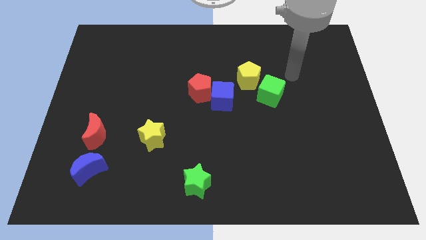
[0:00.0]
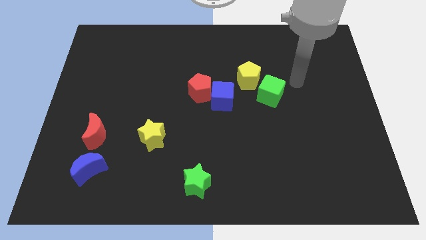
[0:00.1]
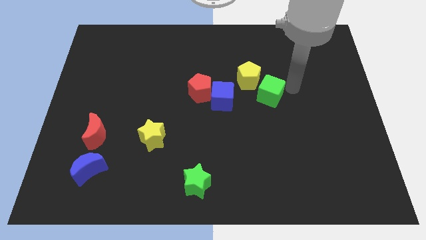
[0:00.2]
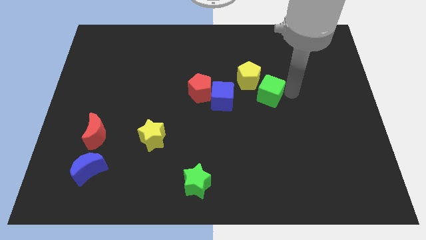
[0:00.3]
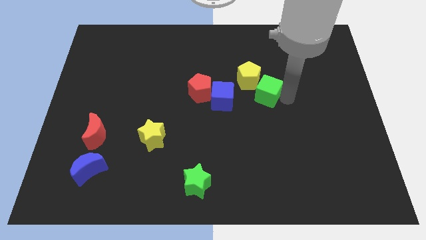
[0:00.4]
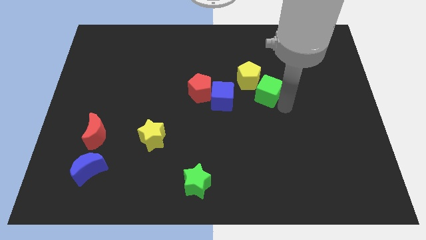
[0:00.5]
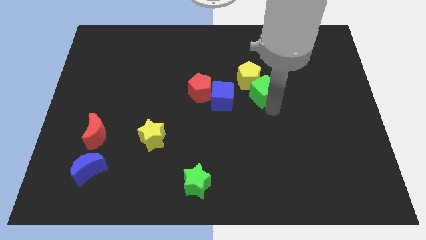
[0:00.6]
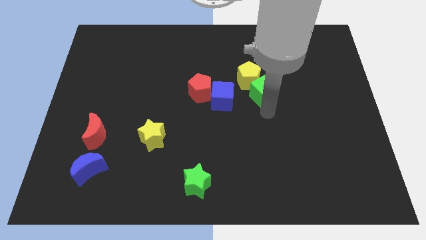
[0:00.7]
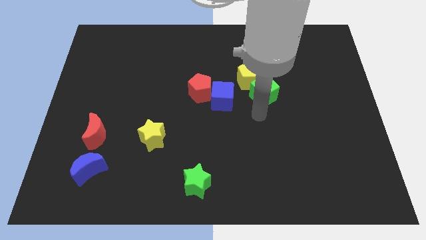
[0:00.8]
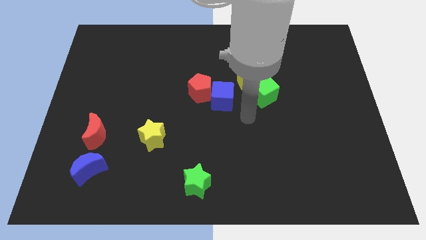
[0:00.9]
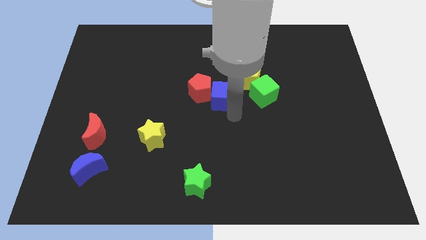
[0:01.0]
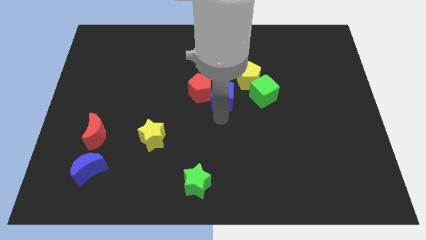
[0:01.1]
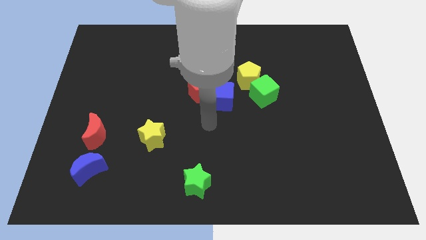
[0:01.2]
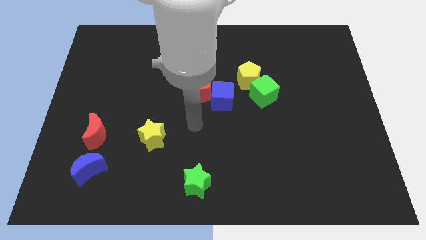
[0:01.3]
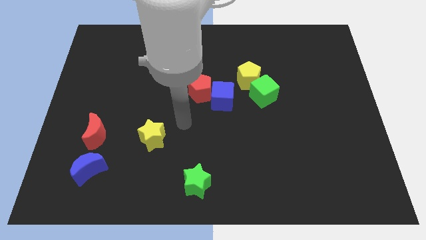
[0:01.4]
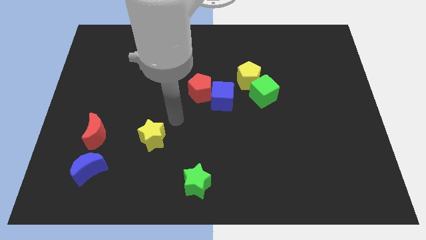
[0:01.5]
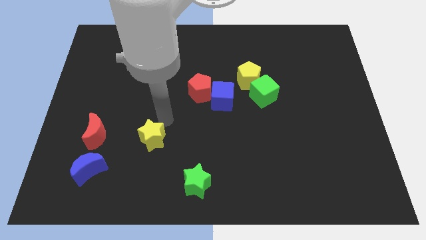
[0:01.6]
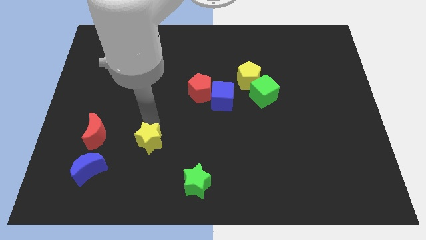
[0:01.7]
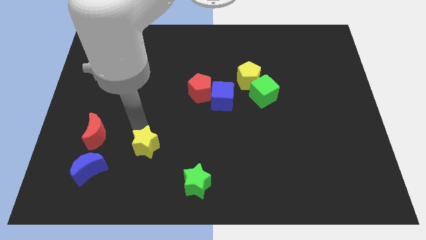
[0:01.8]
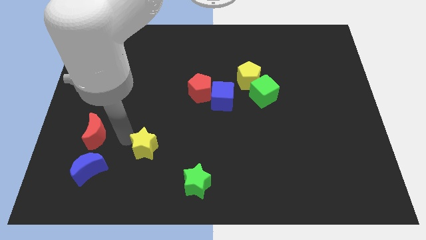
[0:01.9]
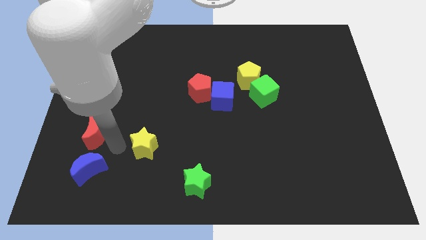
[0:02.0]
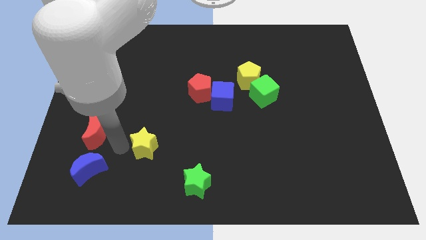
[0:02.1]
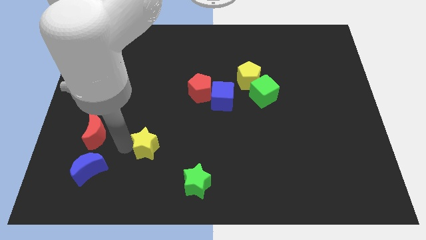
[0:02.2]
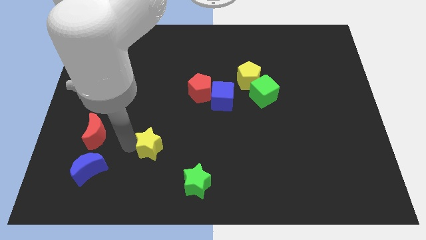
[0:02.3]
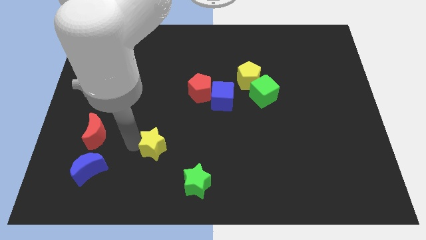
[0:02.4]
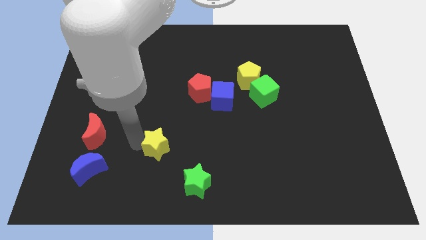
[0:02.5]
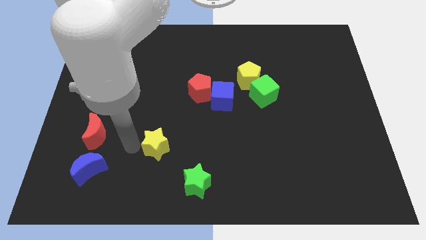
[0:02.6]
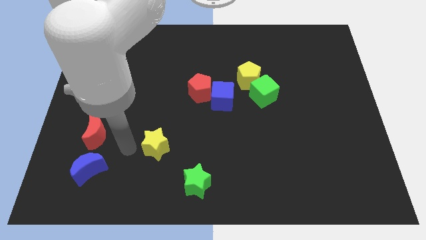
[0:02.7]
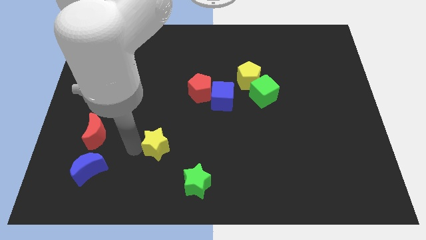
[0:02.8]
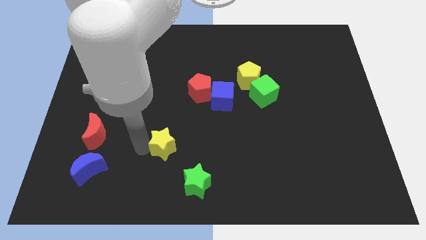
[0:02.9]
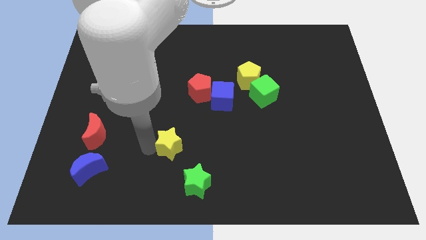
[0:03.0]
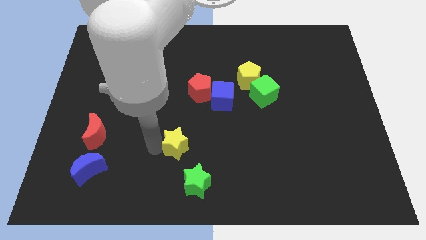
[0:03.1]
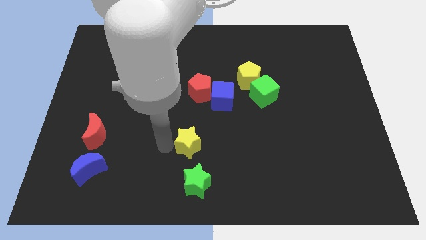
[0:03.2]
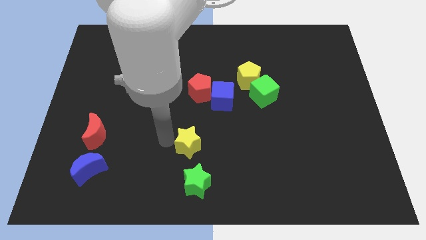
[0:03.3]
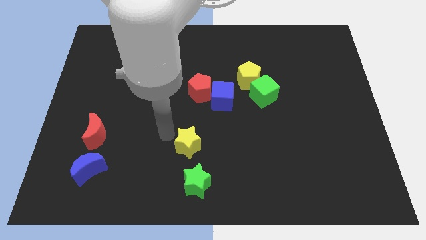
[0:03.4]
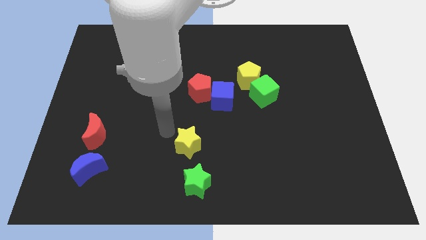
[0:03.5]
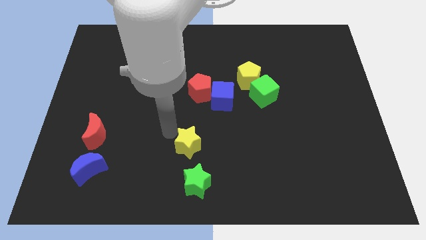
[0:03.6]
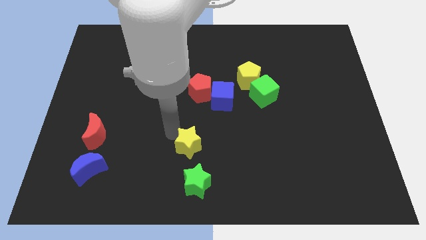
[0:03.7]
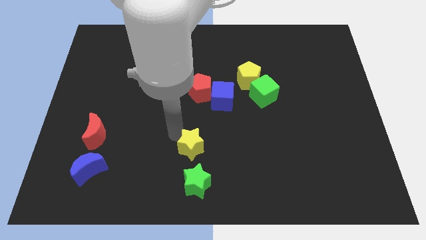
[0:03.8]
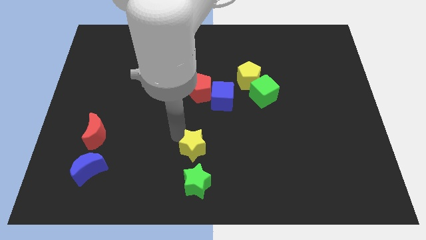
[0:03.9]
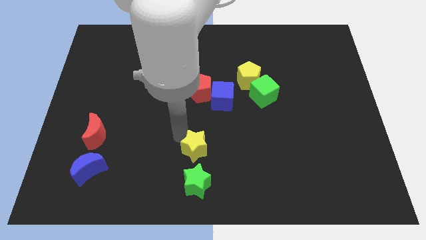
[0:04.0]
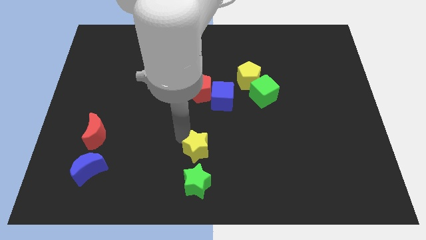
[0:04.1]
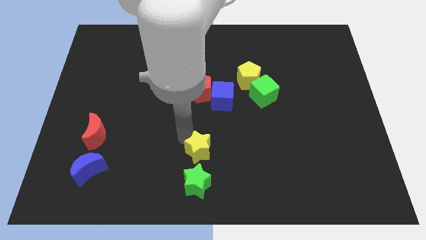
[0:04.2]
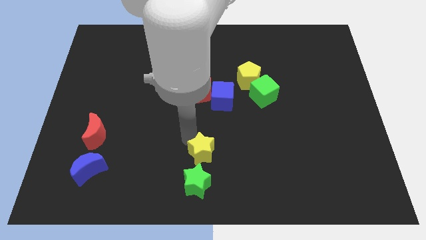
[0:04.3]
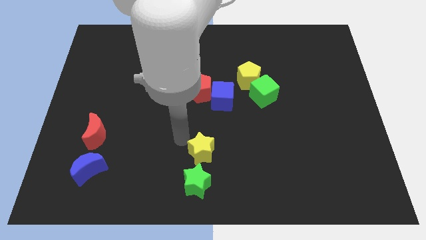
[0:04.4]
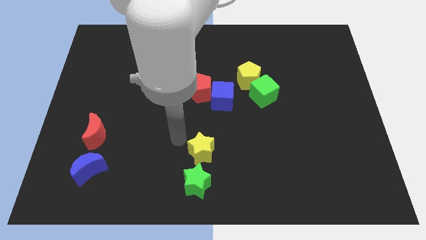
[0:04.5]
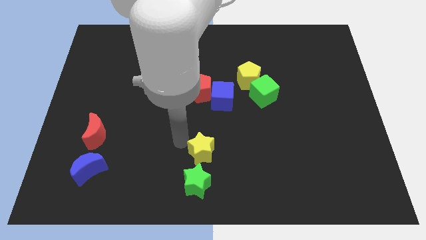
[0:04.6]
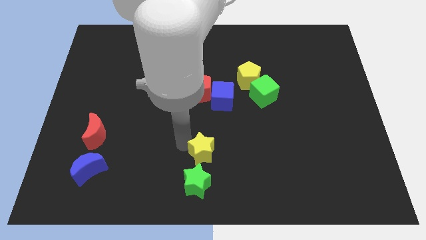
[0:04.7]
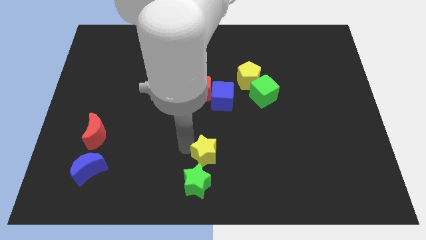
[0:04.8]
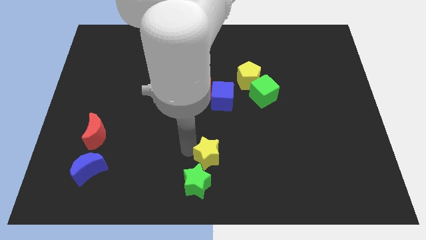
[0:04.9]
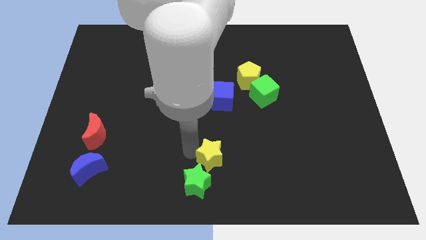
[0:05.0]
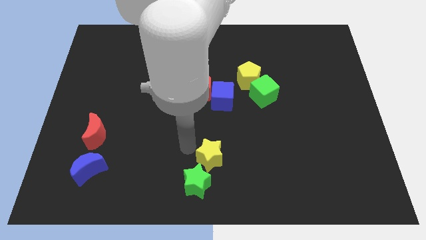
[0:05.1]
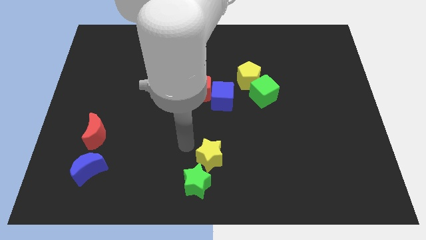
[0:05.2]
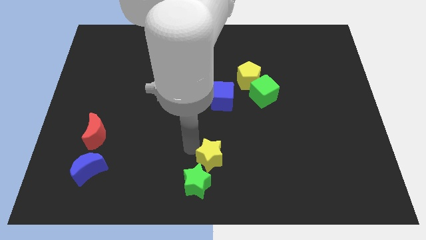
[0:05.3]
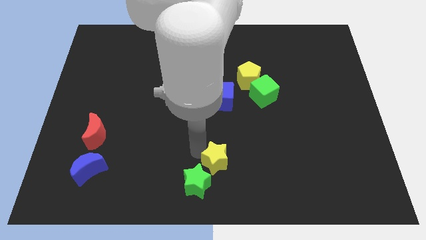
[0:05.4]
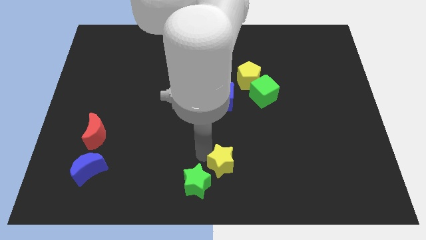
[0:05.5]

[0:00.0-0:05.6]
slide the yellow star to the right of the green star

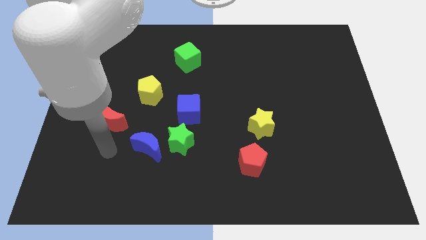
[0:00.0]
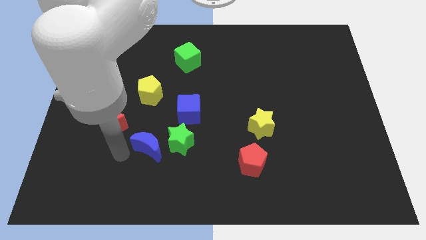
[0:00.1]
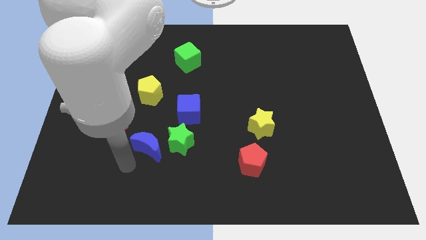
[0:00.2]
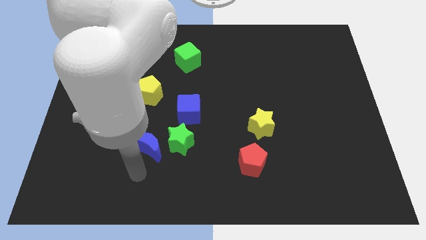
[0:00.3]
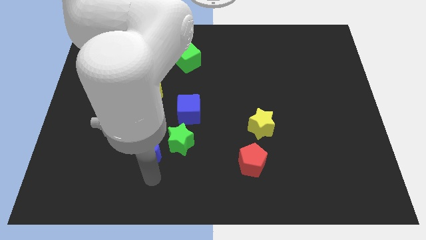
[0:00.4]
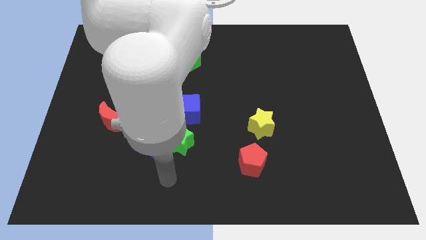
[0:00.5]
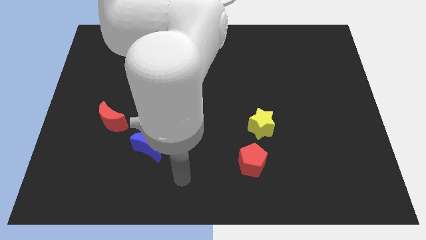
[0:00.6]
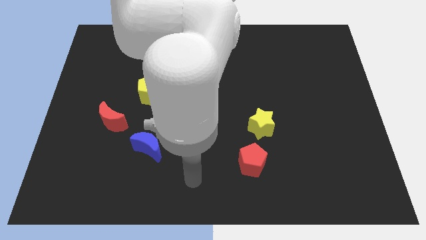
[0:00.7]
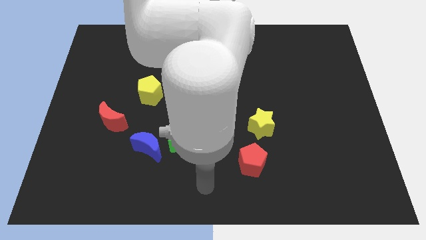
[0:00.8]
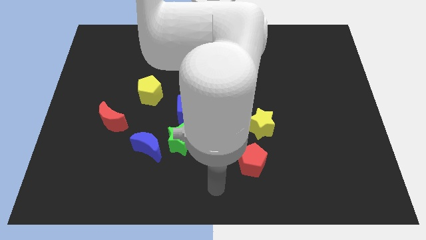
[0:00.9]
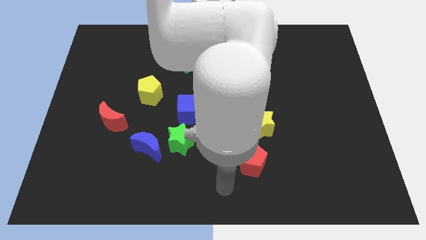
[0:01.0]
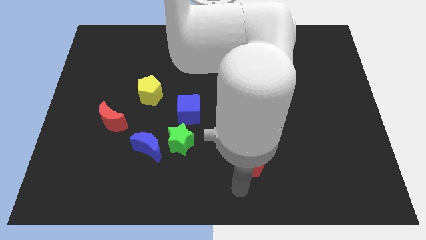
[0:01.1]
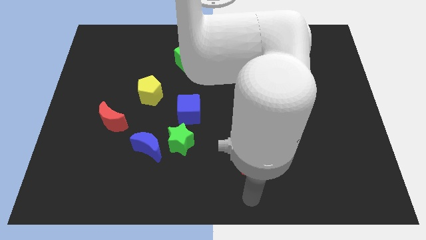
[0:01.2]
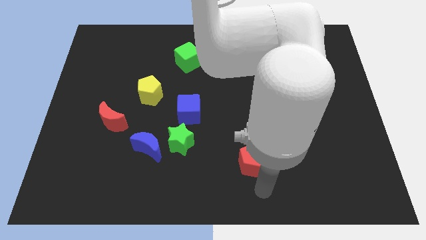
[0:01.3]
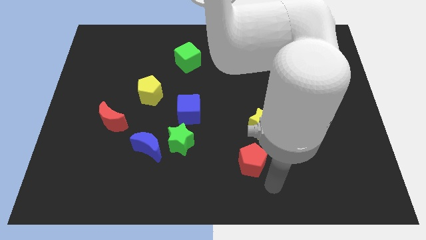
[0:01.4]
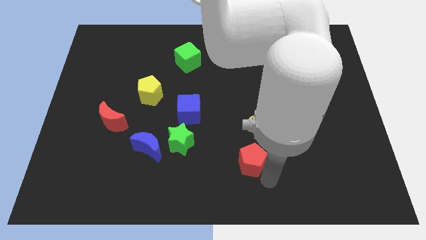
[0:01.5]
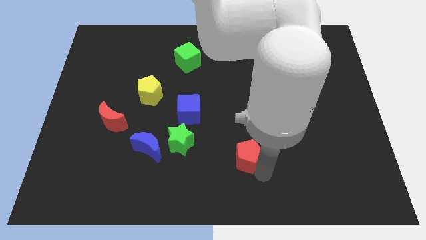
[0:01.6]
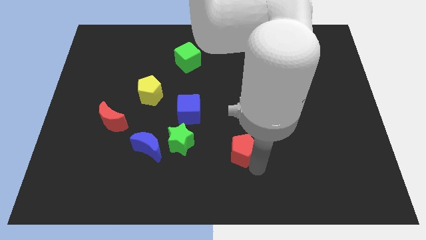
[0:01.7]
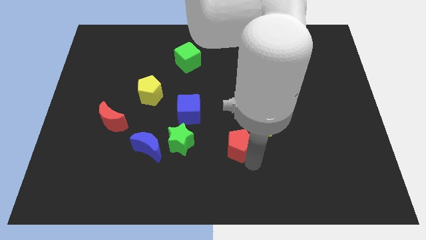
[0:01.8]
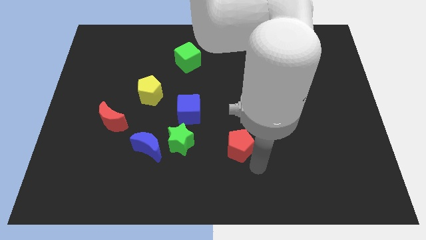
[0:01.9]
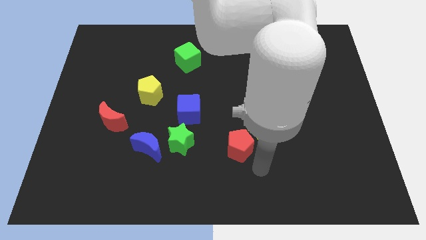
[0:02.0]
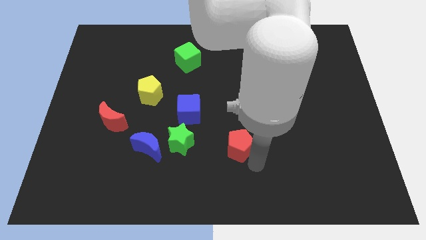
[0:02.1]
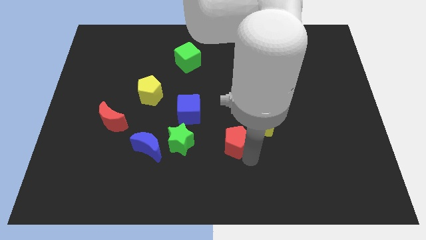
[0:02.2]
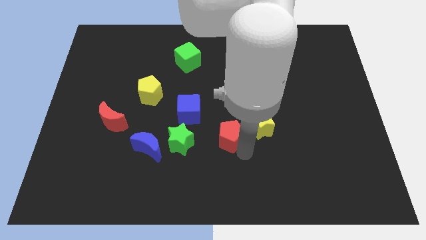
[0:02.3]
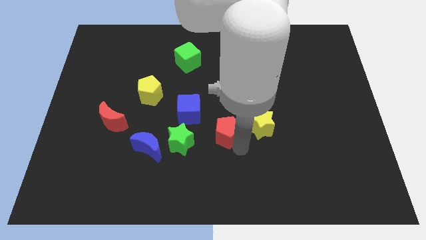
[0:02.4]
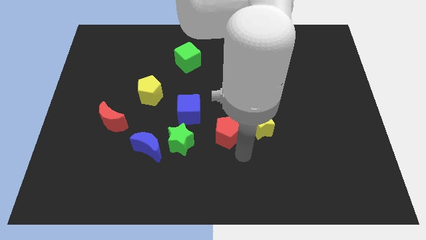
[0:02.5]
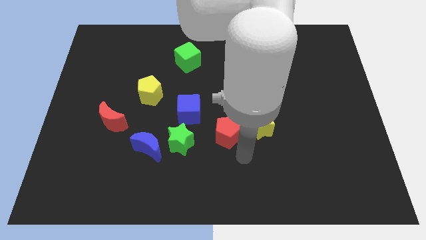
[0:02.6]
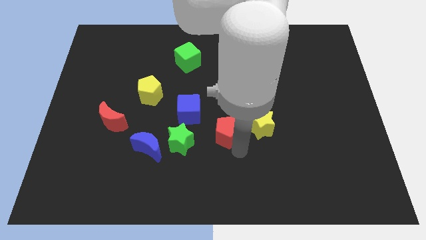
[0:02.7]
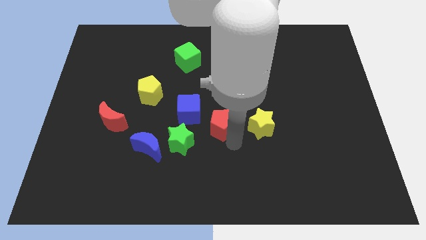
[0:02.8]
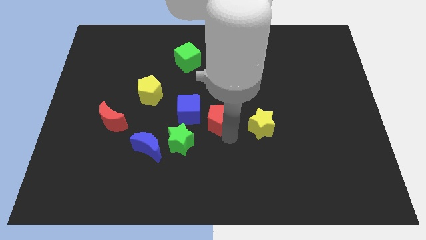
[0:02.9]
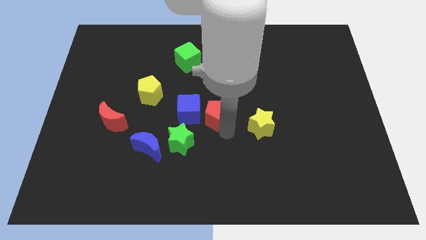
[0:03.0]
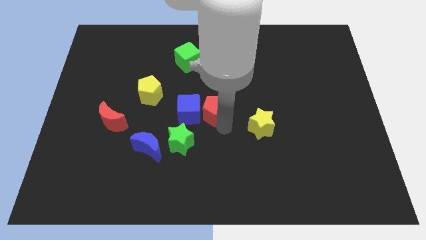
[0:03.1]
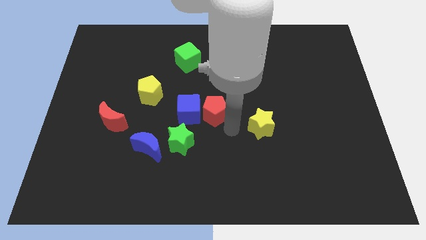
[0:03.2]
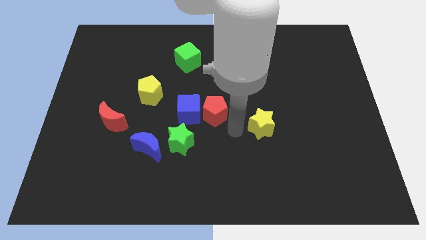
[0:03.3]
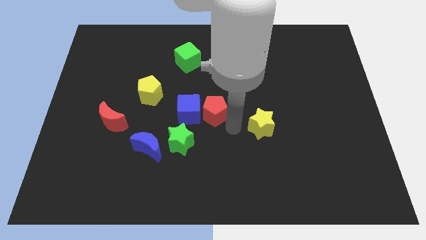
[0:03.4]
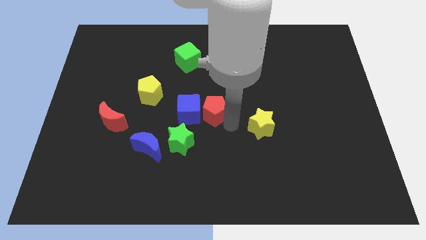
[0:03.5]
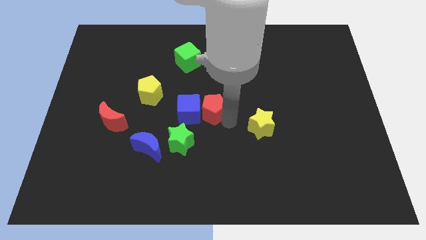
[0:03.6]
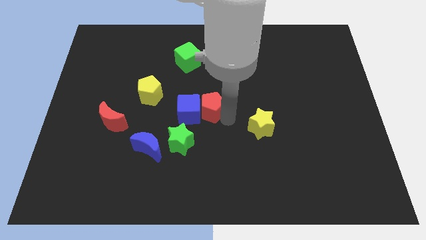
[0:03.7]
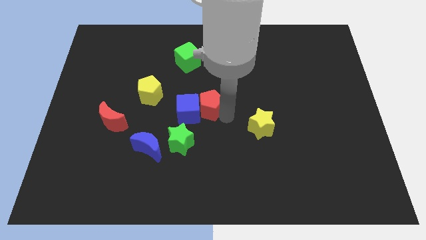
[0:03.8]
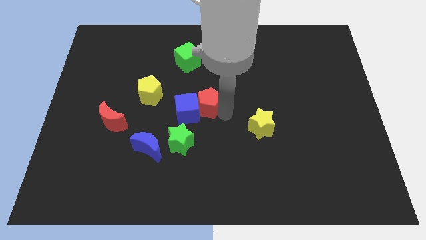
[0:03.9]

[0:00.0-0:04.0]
slide the red pentagon right of the yellow pentagon
